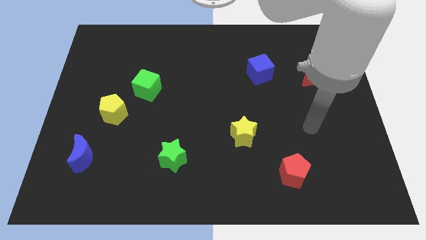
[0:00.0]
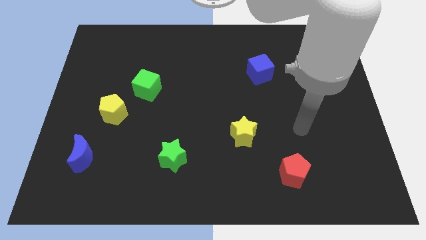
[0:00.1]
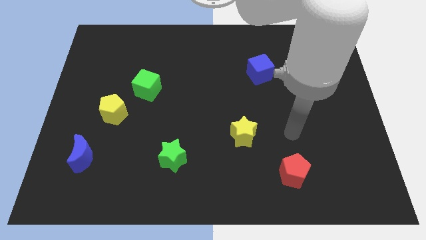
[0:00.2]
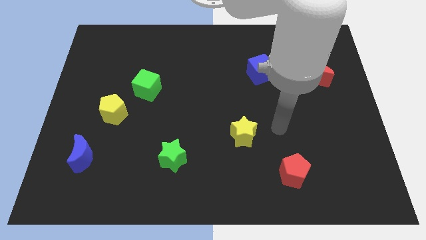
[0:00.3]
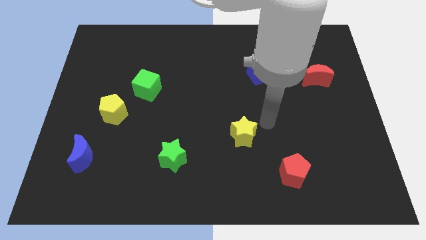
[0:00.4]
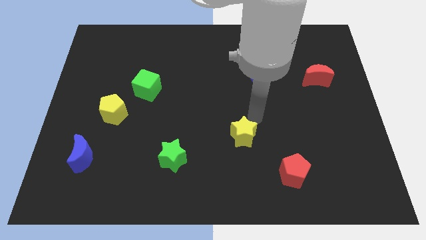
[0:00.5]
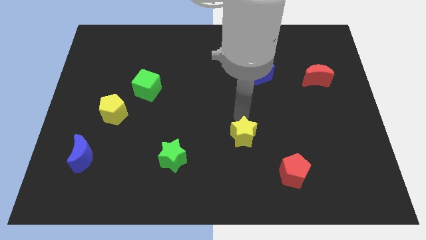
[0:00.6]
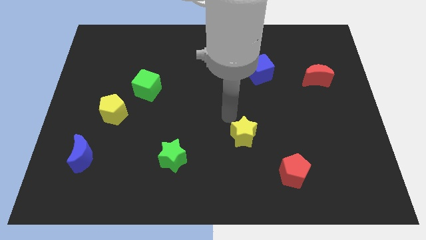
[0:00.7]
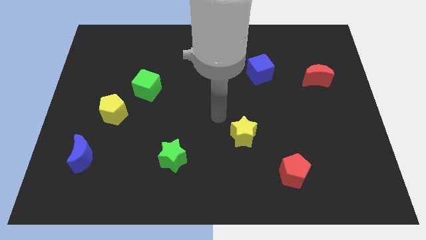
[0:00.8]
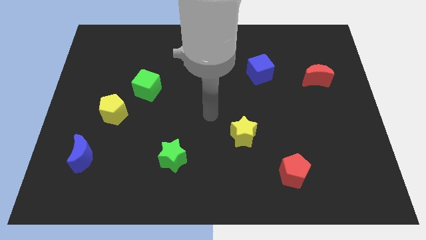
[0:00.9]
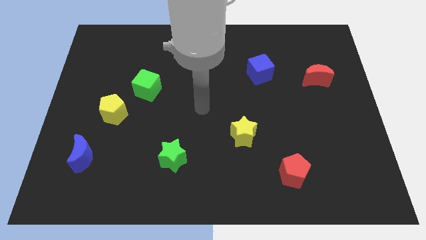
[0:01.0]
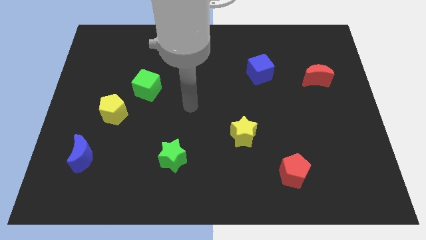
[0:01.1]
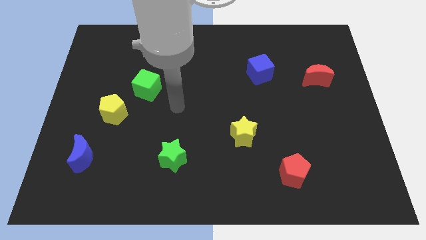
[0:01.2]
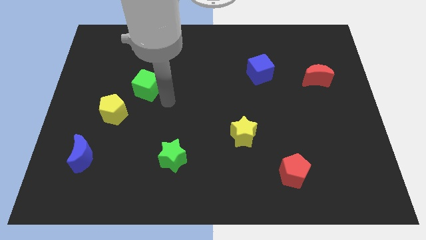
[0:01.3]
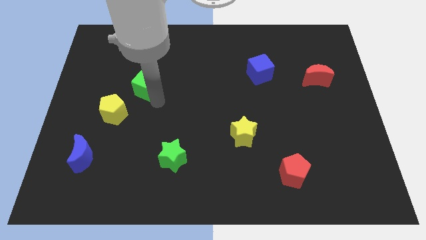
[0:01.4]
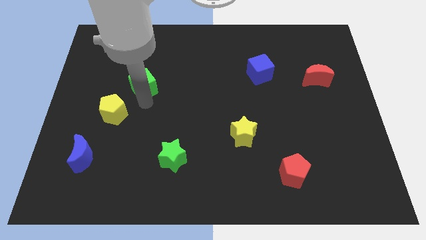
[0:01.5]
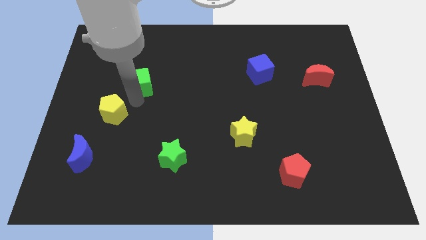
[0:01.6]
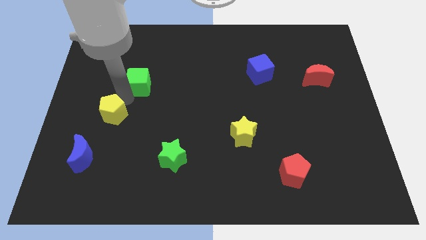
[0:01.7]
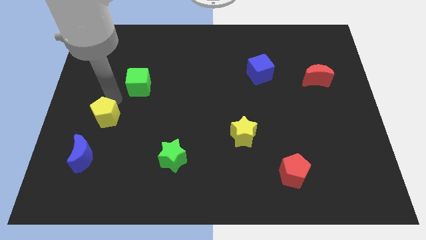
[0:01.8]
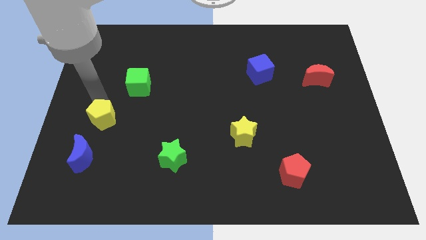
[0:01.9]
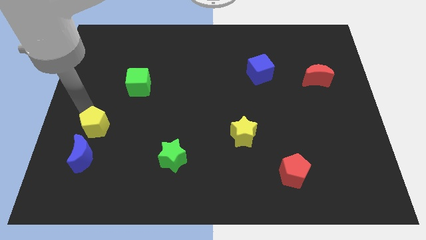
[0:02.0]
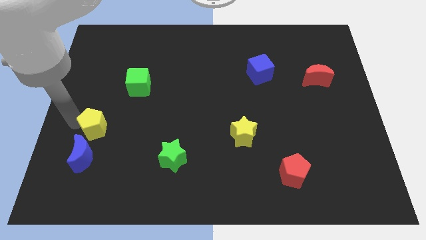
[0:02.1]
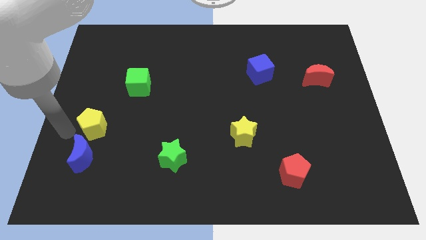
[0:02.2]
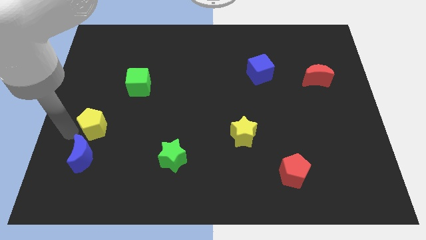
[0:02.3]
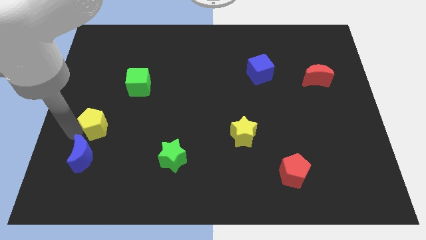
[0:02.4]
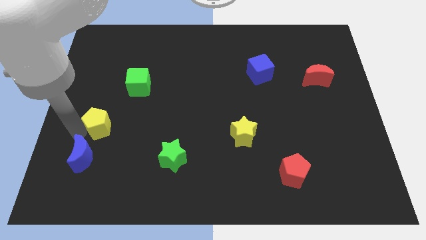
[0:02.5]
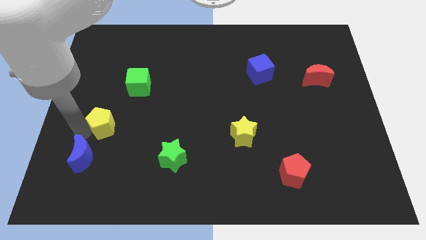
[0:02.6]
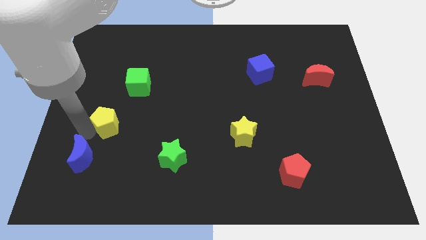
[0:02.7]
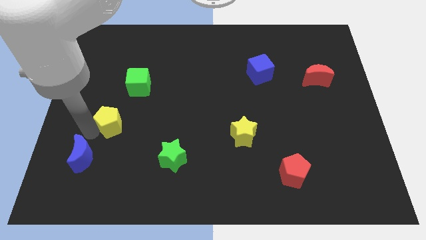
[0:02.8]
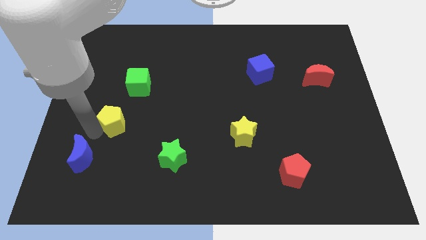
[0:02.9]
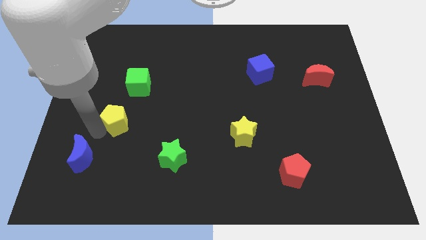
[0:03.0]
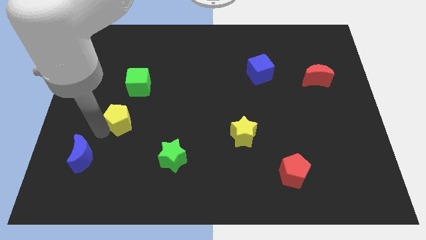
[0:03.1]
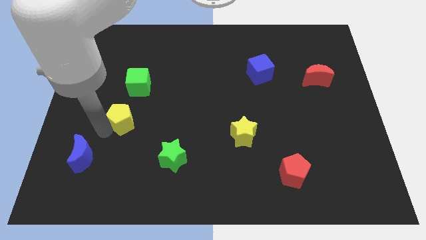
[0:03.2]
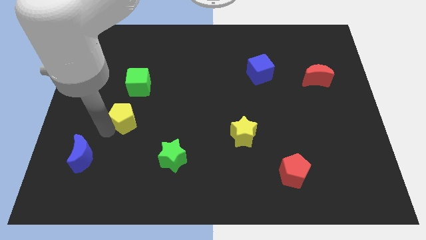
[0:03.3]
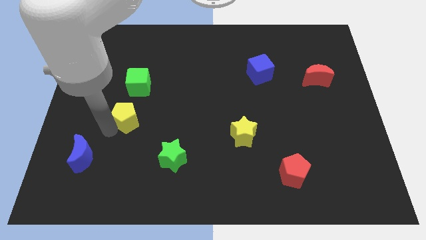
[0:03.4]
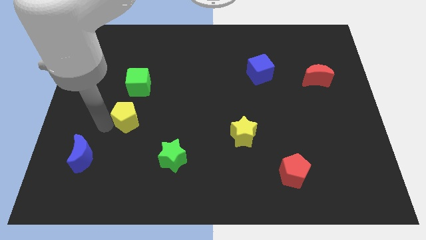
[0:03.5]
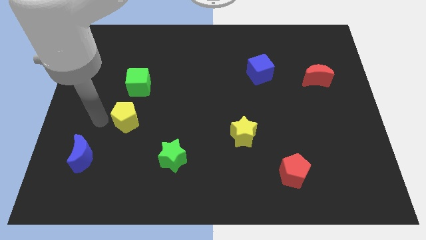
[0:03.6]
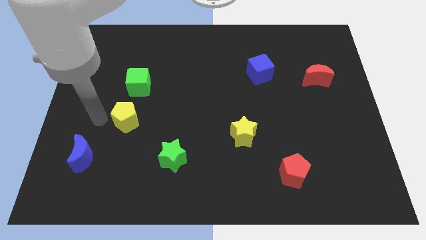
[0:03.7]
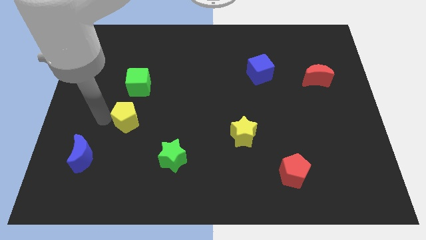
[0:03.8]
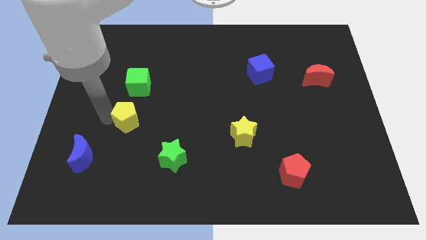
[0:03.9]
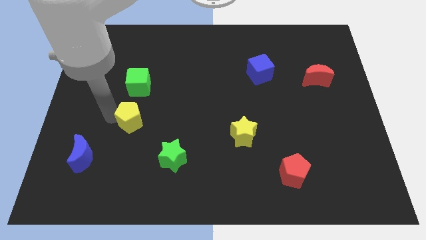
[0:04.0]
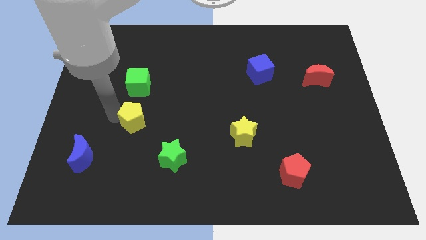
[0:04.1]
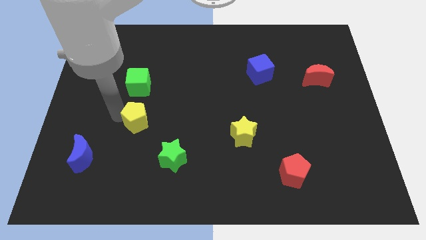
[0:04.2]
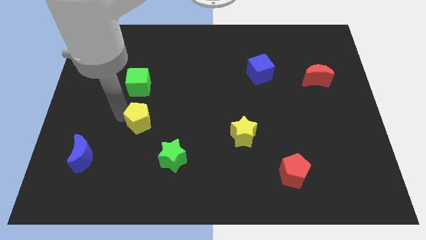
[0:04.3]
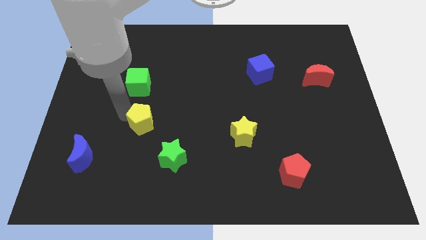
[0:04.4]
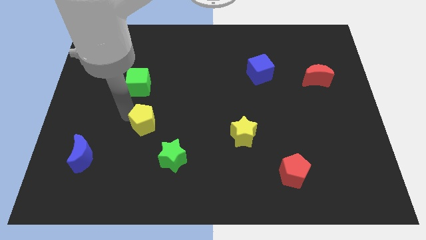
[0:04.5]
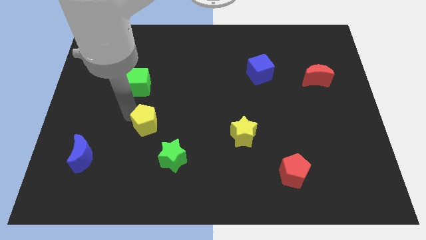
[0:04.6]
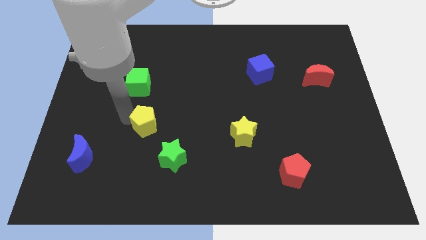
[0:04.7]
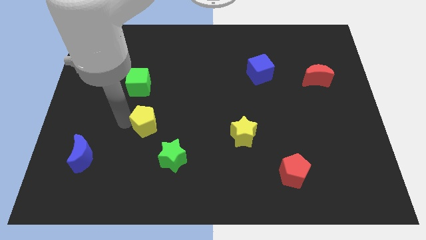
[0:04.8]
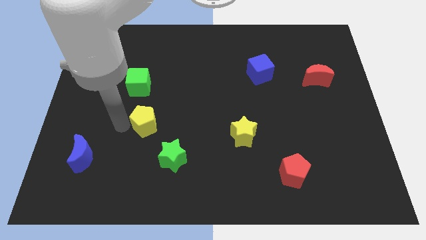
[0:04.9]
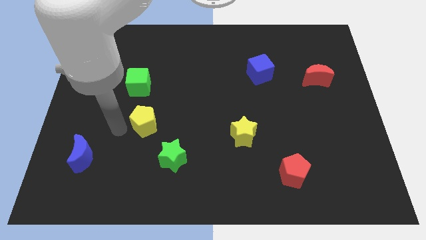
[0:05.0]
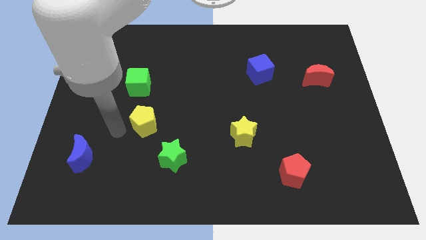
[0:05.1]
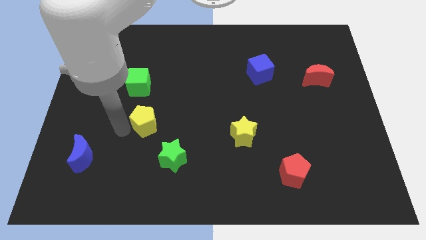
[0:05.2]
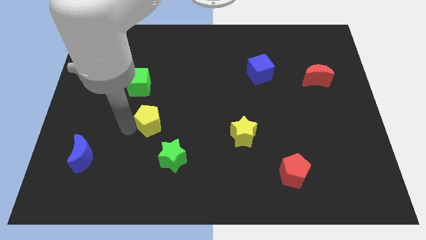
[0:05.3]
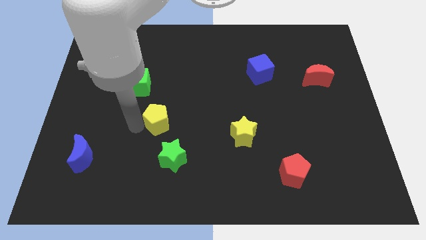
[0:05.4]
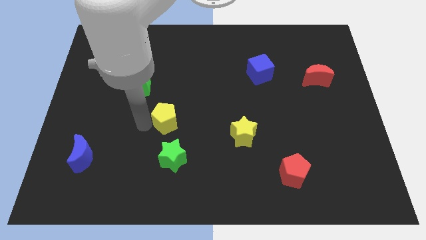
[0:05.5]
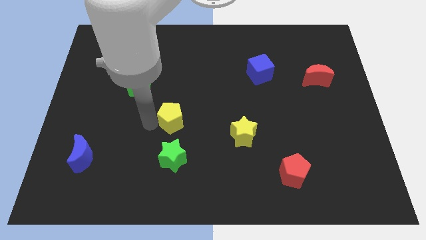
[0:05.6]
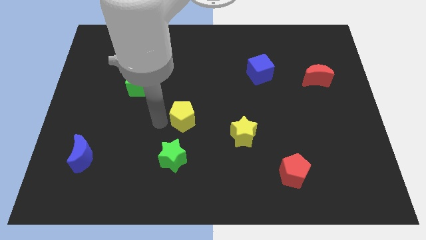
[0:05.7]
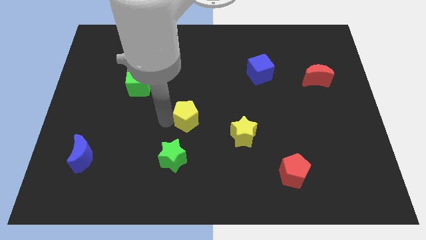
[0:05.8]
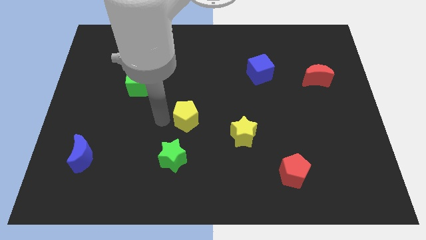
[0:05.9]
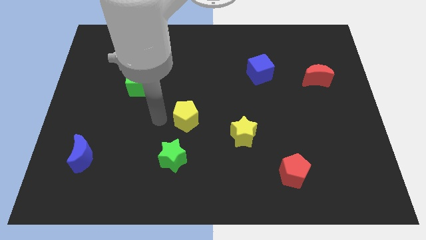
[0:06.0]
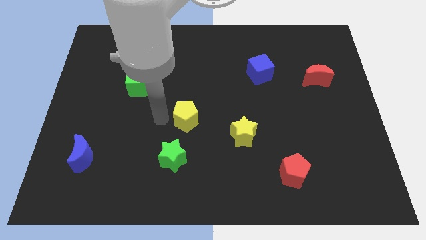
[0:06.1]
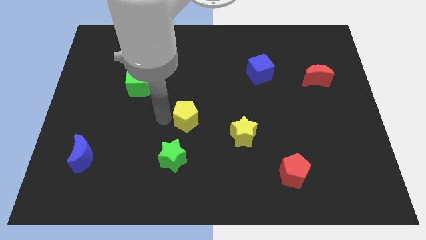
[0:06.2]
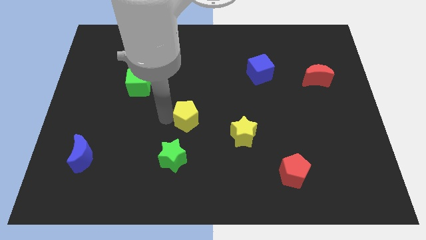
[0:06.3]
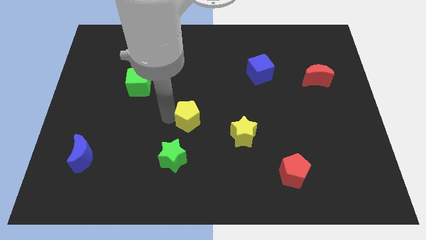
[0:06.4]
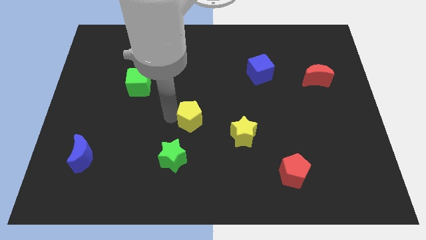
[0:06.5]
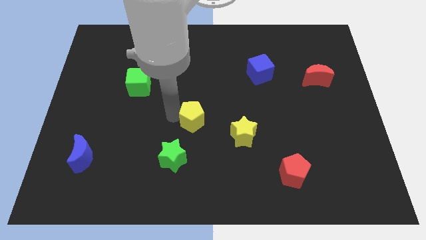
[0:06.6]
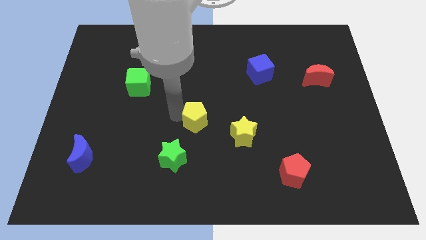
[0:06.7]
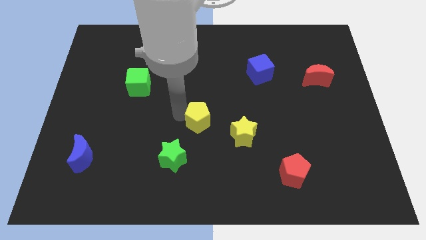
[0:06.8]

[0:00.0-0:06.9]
slide the yellow pentagon to the right

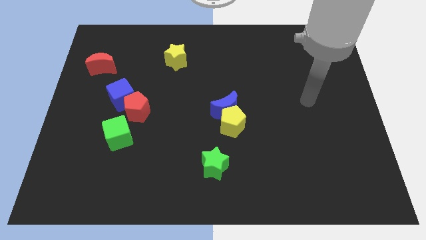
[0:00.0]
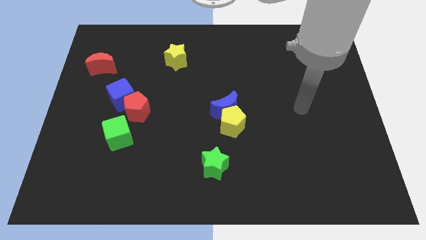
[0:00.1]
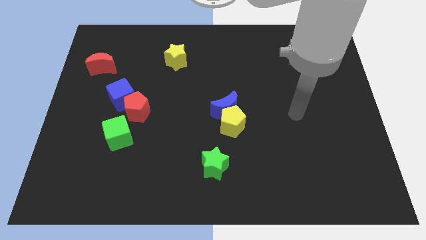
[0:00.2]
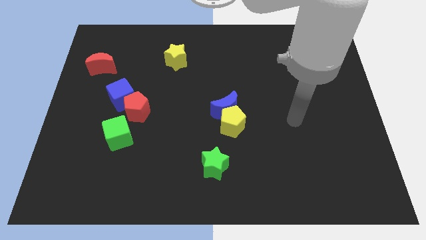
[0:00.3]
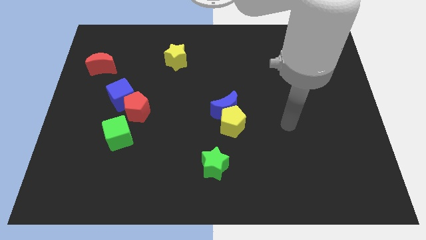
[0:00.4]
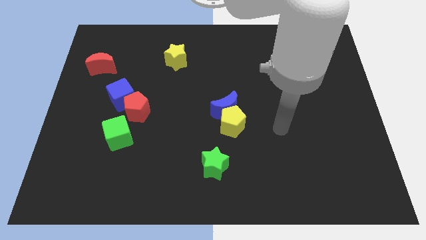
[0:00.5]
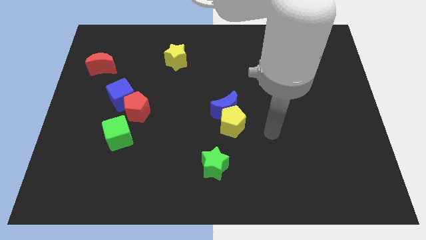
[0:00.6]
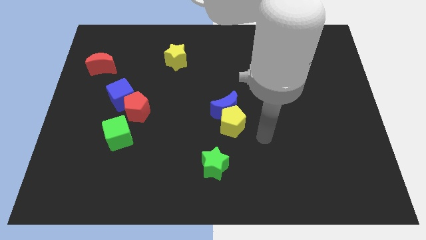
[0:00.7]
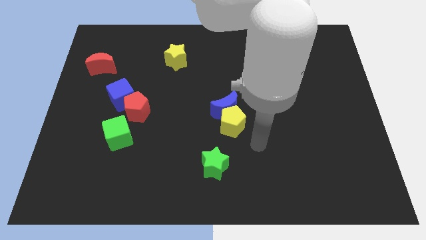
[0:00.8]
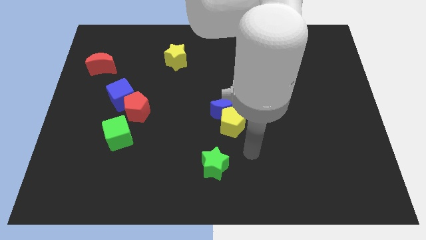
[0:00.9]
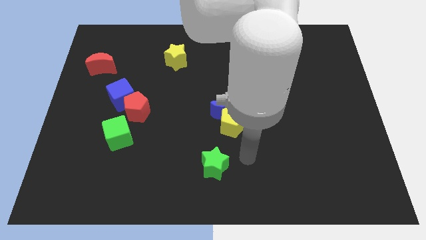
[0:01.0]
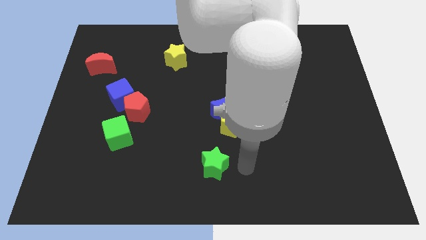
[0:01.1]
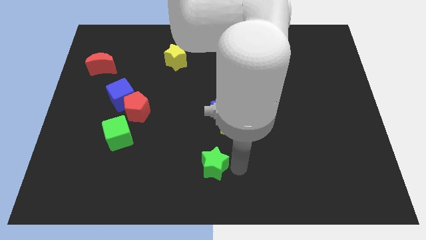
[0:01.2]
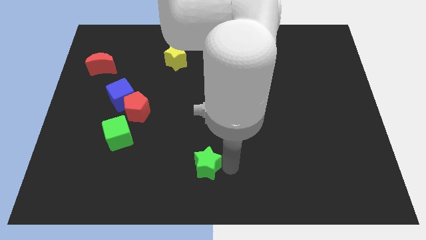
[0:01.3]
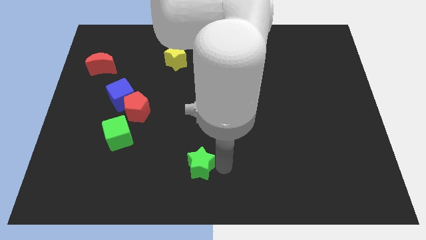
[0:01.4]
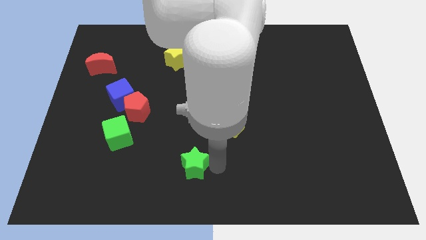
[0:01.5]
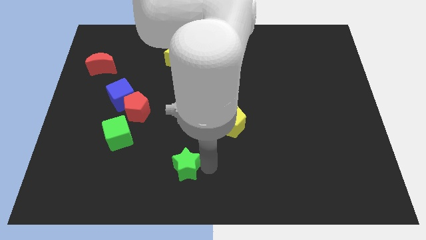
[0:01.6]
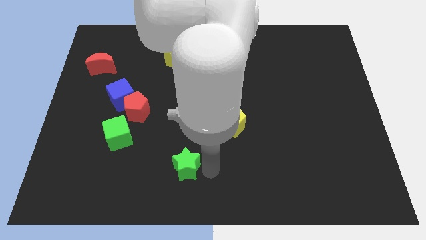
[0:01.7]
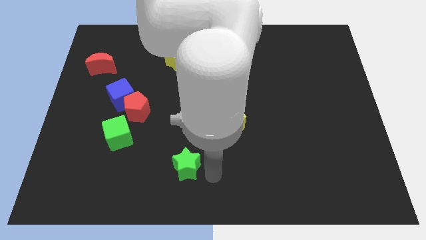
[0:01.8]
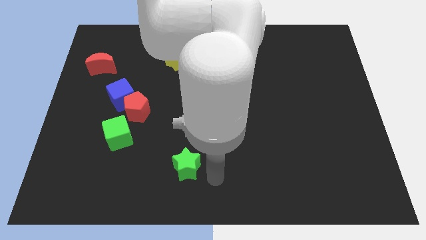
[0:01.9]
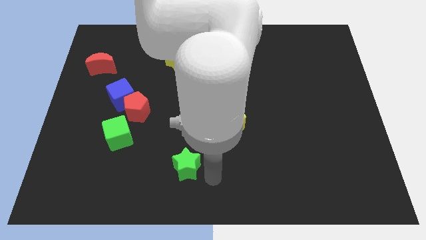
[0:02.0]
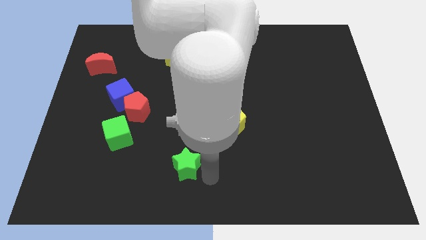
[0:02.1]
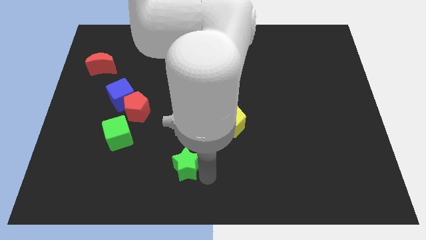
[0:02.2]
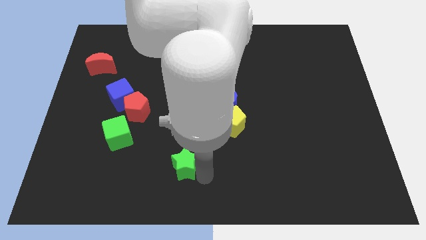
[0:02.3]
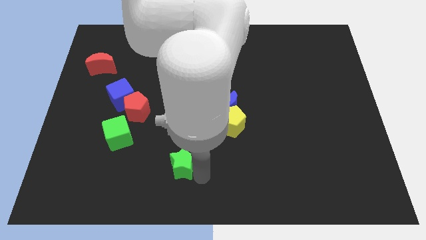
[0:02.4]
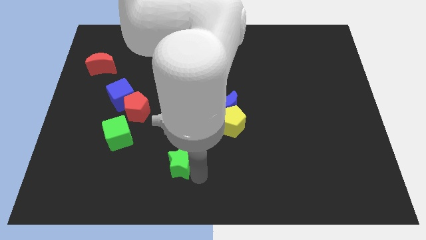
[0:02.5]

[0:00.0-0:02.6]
slightly push the green star to the left
